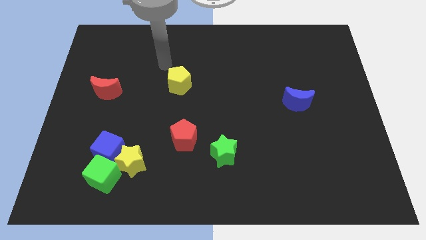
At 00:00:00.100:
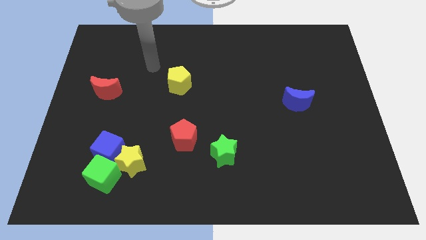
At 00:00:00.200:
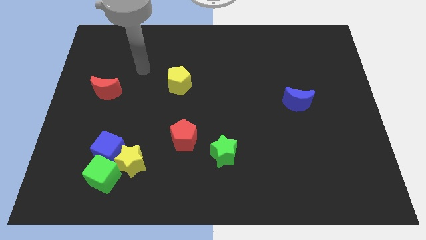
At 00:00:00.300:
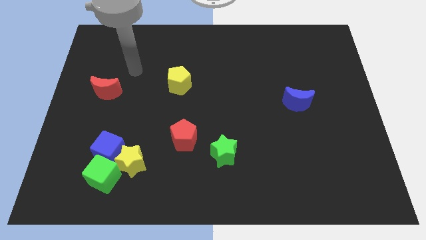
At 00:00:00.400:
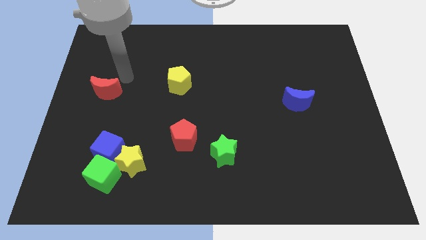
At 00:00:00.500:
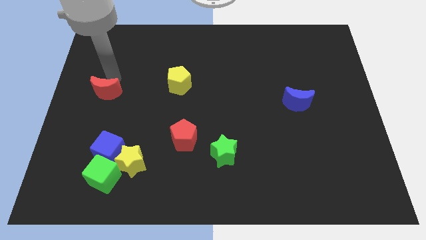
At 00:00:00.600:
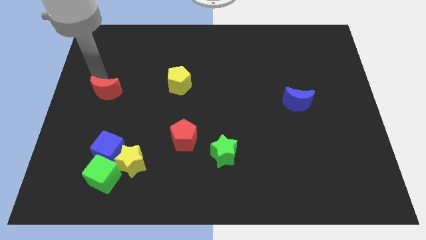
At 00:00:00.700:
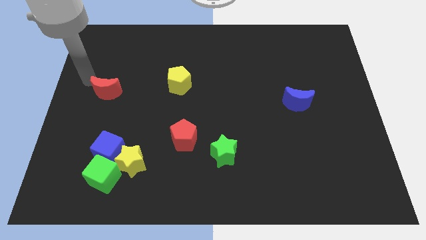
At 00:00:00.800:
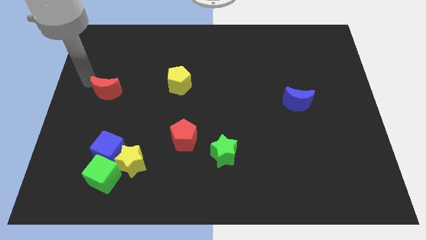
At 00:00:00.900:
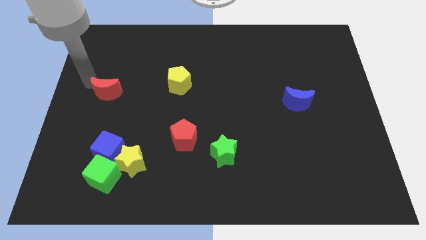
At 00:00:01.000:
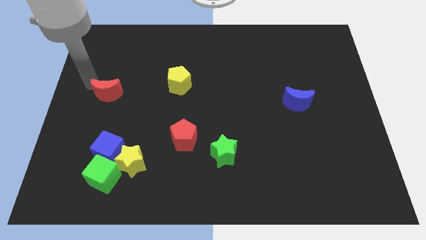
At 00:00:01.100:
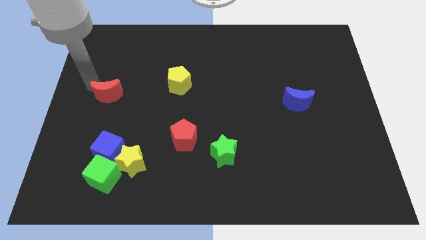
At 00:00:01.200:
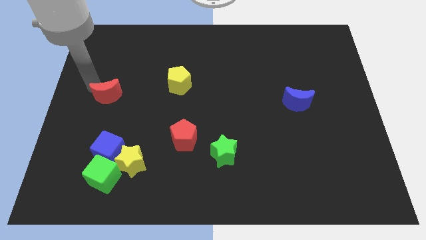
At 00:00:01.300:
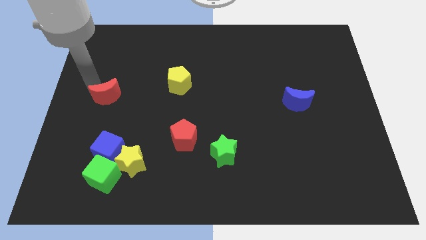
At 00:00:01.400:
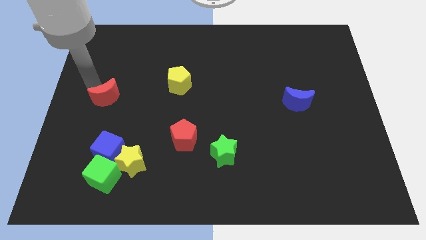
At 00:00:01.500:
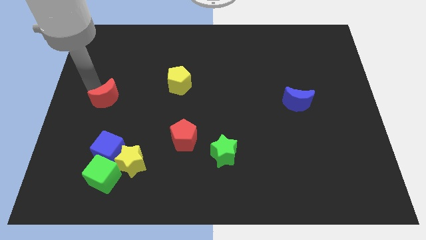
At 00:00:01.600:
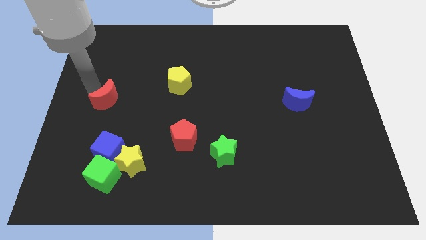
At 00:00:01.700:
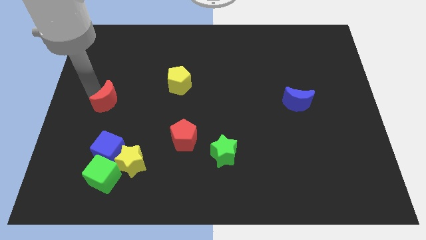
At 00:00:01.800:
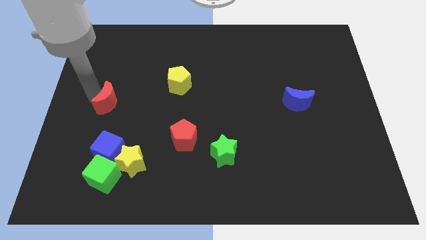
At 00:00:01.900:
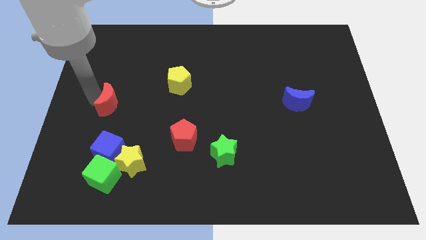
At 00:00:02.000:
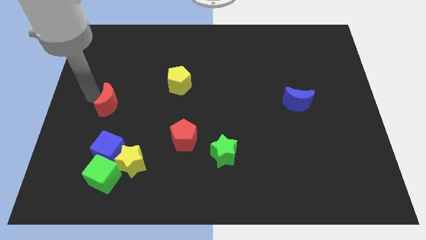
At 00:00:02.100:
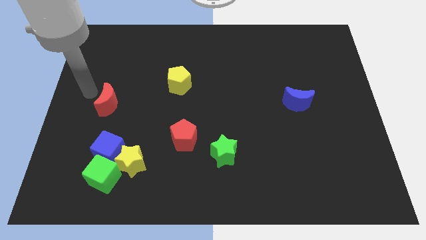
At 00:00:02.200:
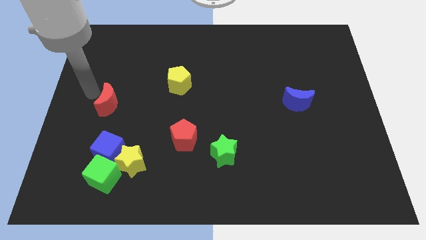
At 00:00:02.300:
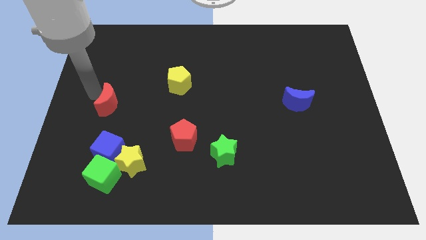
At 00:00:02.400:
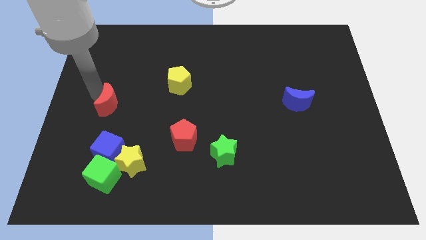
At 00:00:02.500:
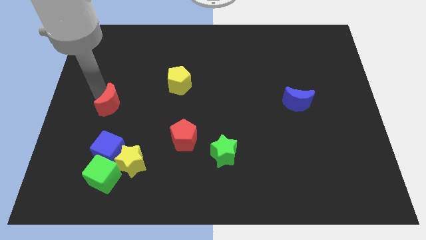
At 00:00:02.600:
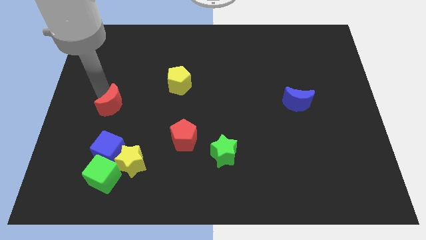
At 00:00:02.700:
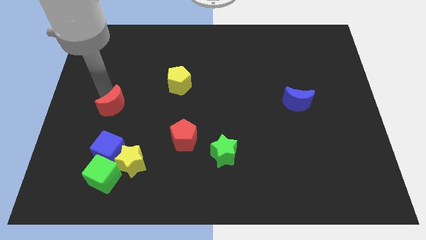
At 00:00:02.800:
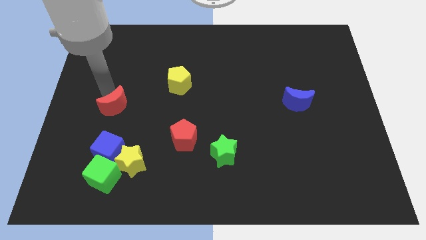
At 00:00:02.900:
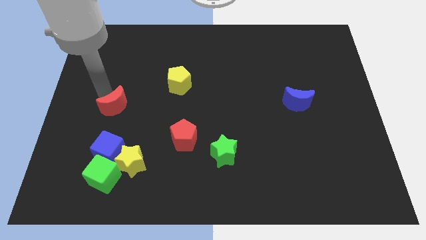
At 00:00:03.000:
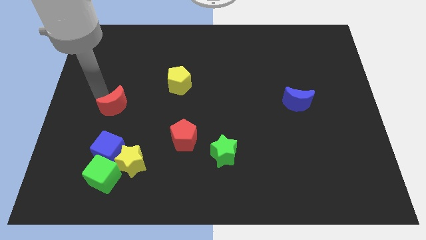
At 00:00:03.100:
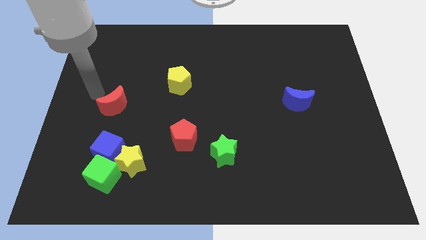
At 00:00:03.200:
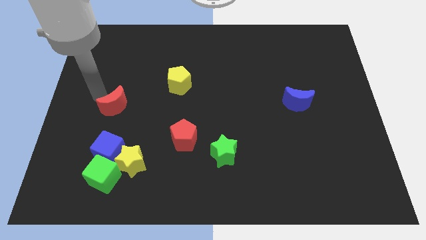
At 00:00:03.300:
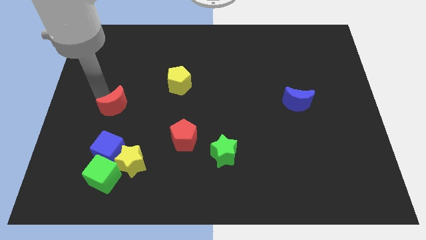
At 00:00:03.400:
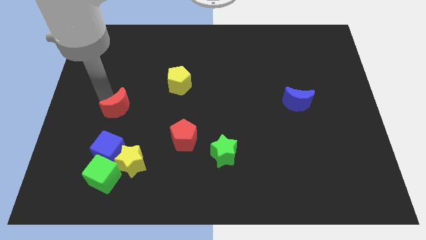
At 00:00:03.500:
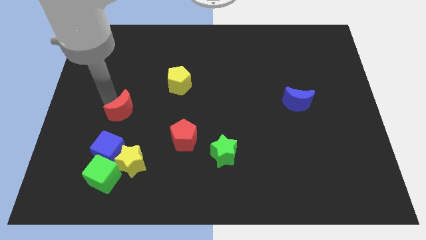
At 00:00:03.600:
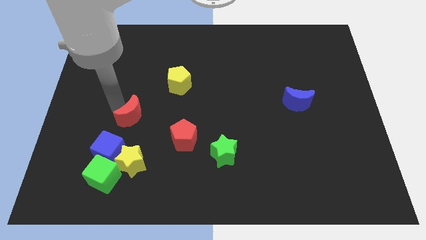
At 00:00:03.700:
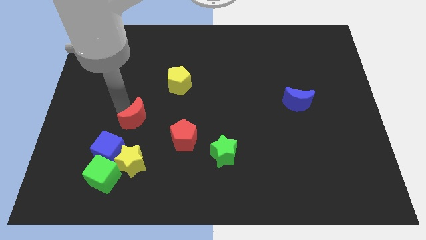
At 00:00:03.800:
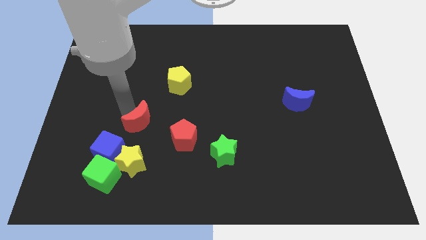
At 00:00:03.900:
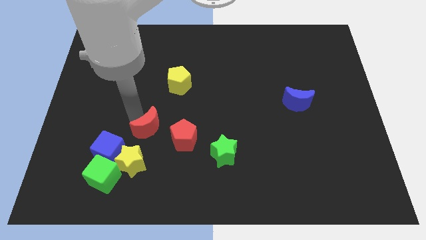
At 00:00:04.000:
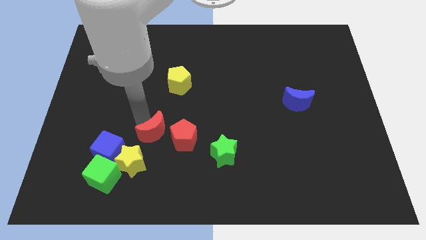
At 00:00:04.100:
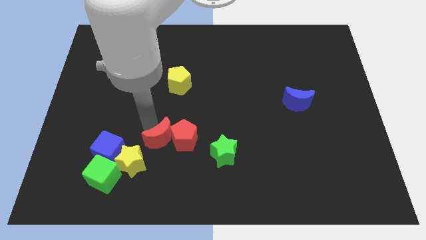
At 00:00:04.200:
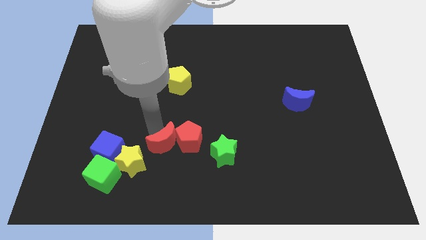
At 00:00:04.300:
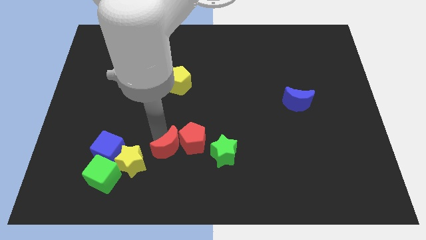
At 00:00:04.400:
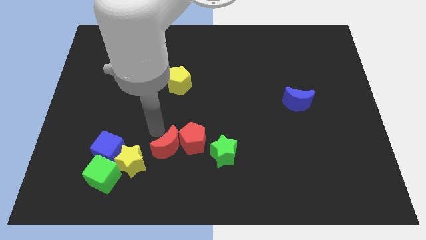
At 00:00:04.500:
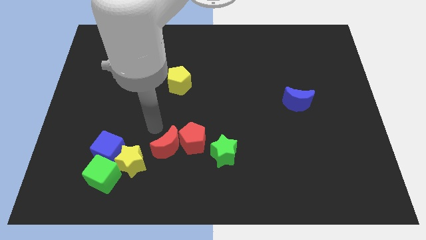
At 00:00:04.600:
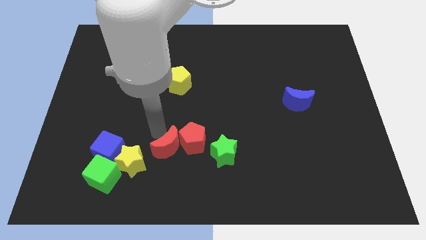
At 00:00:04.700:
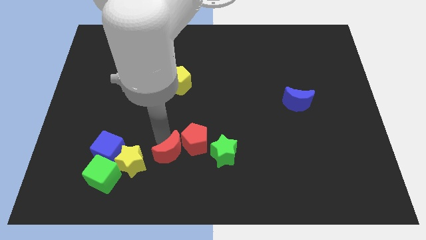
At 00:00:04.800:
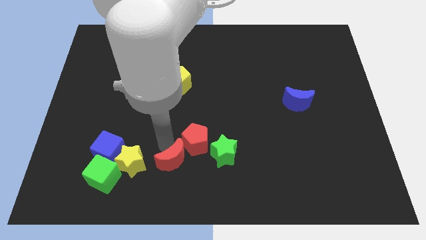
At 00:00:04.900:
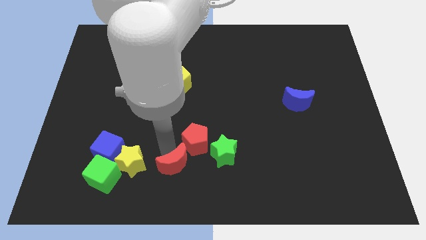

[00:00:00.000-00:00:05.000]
push the red moon to the bottom

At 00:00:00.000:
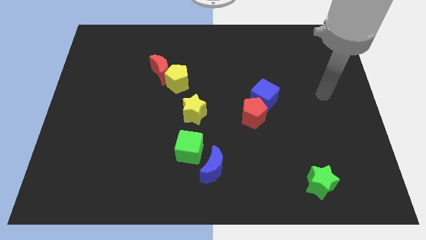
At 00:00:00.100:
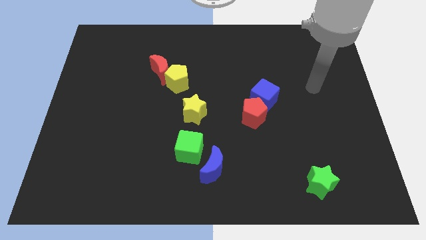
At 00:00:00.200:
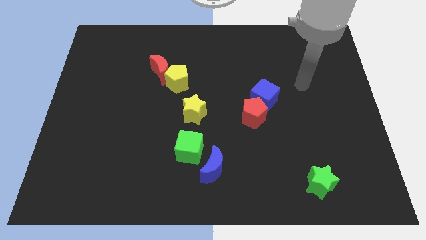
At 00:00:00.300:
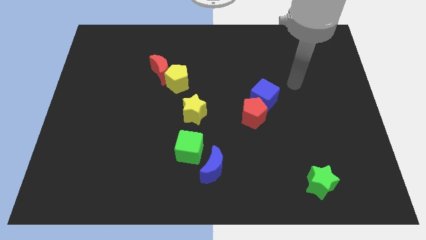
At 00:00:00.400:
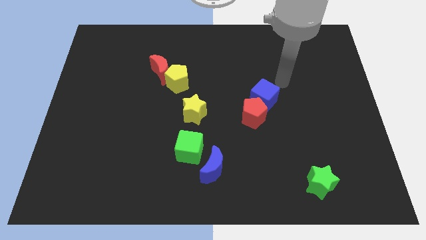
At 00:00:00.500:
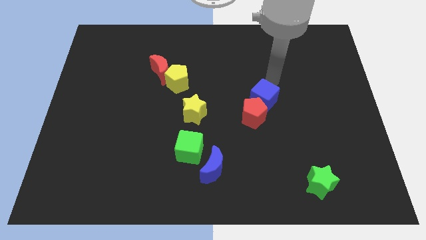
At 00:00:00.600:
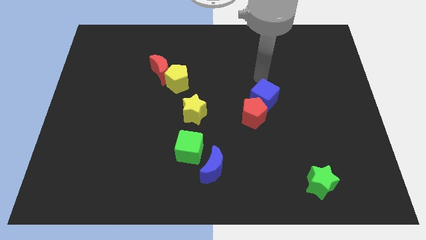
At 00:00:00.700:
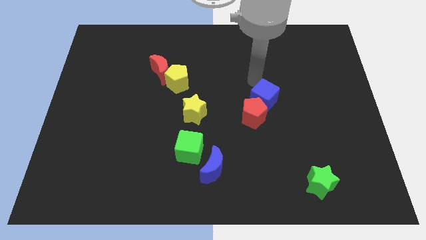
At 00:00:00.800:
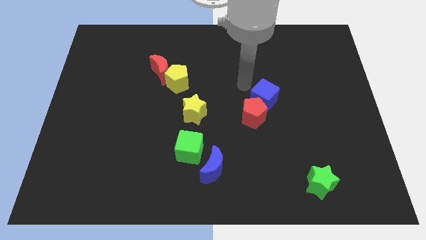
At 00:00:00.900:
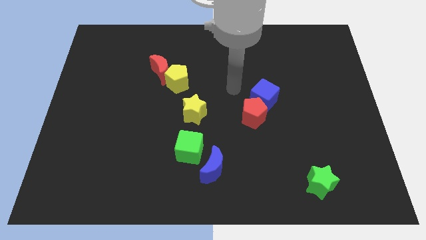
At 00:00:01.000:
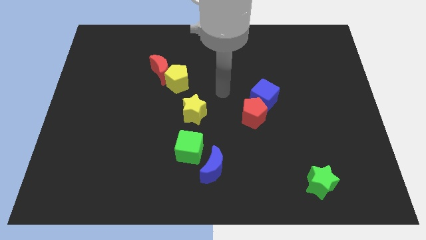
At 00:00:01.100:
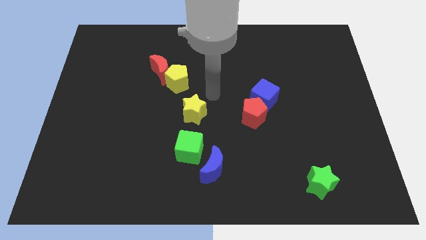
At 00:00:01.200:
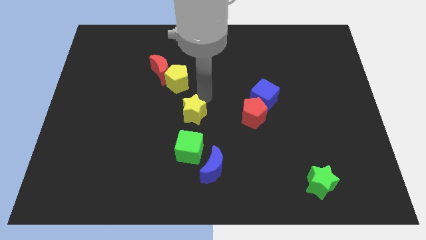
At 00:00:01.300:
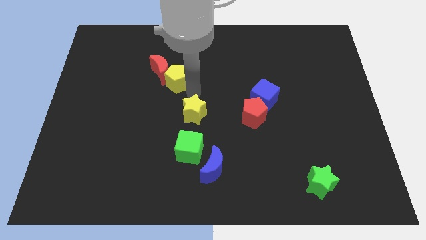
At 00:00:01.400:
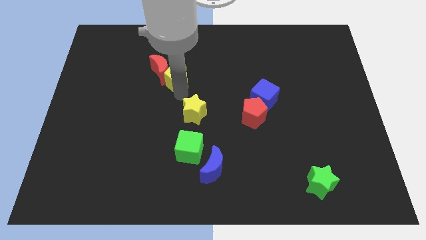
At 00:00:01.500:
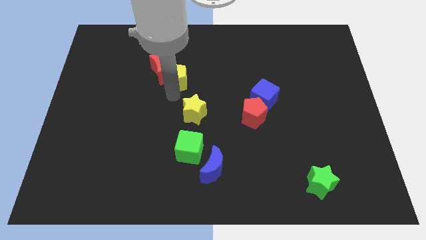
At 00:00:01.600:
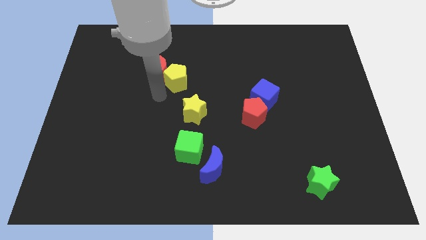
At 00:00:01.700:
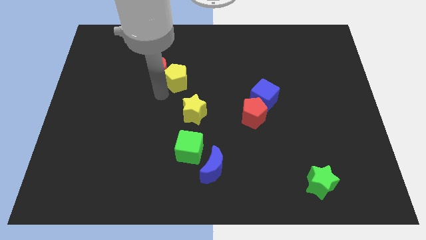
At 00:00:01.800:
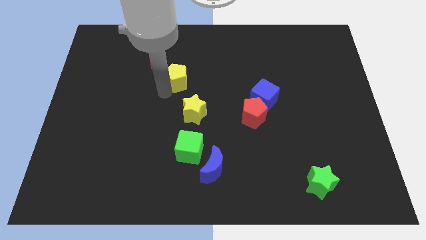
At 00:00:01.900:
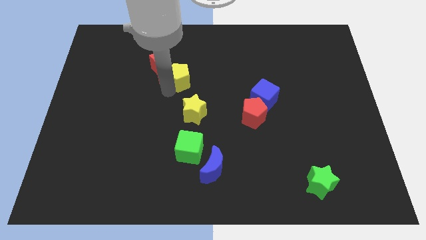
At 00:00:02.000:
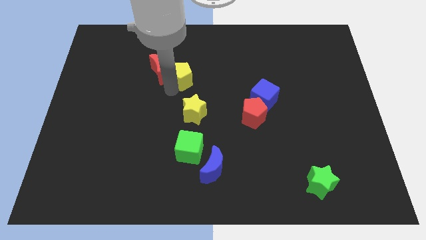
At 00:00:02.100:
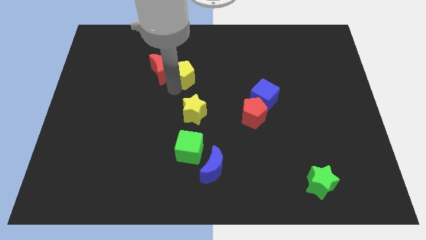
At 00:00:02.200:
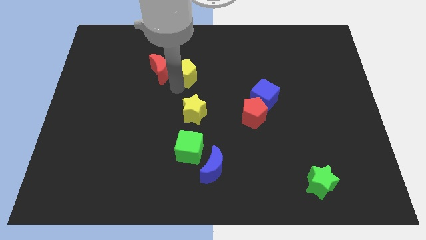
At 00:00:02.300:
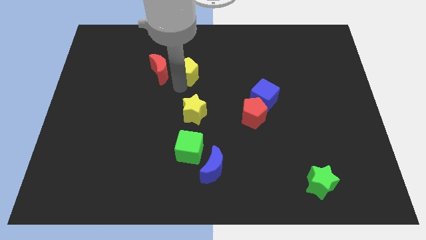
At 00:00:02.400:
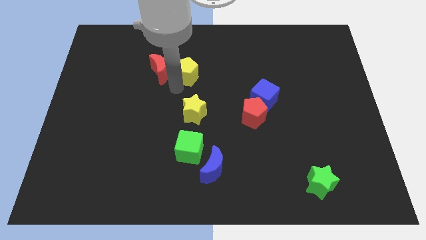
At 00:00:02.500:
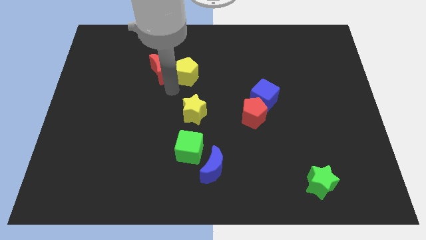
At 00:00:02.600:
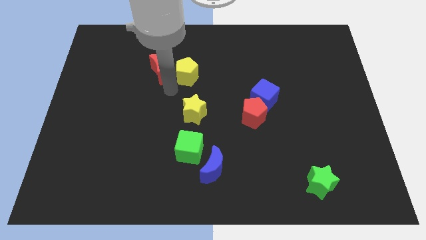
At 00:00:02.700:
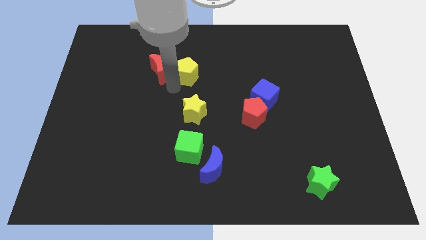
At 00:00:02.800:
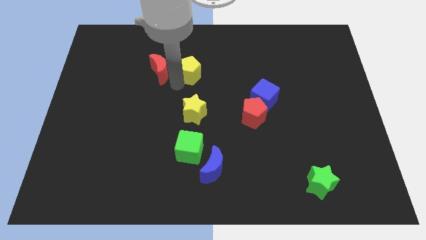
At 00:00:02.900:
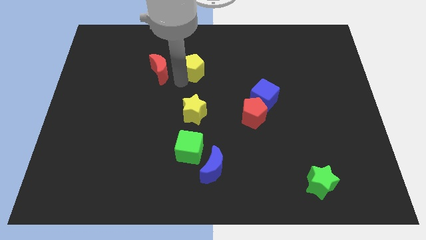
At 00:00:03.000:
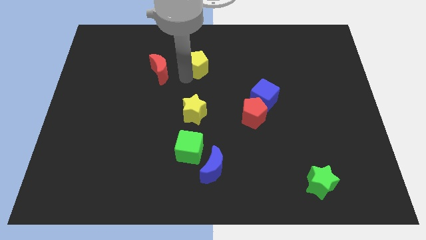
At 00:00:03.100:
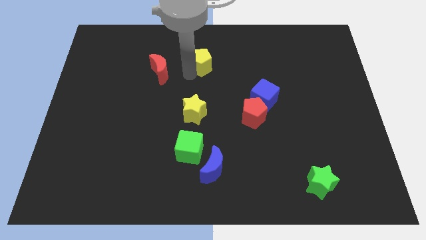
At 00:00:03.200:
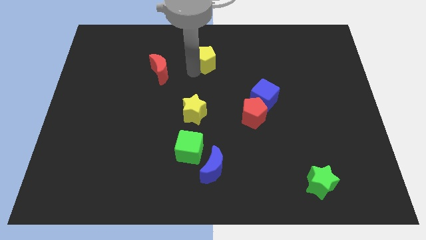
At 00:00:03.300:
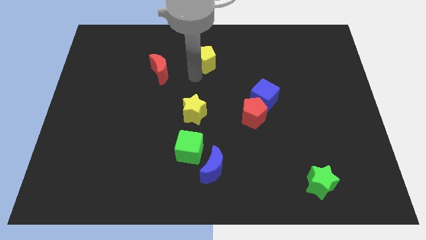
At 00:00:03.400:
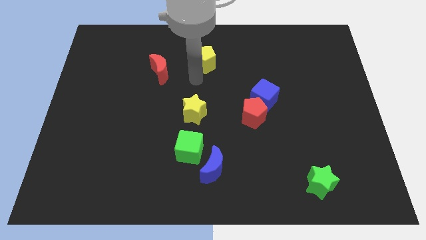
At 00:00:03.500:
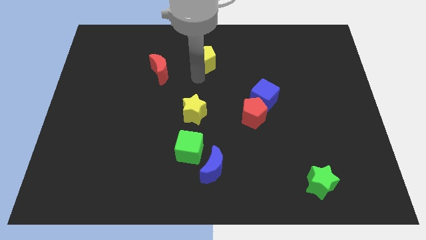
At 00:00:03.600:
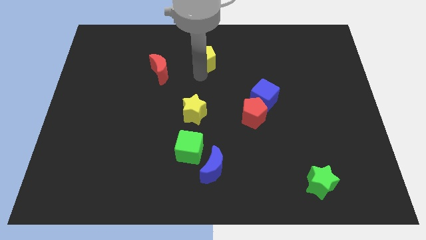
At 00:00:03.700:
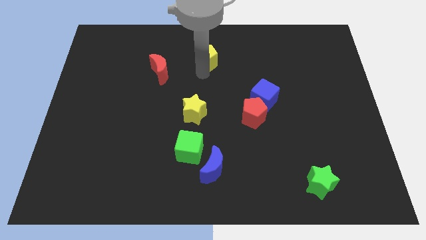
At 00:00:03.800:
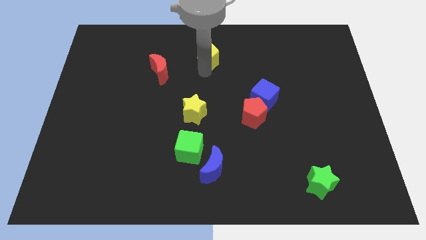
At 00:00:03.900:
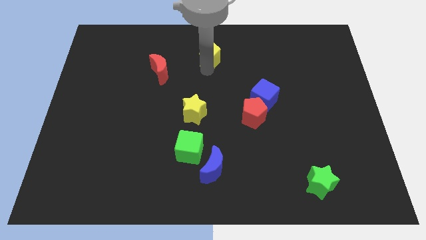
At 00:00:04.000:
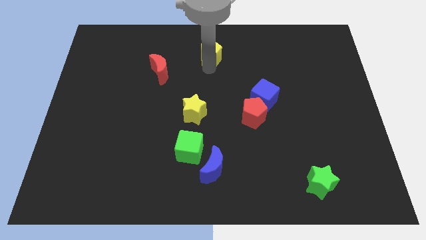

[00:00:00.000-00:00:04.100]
push the yellow pentagon to the towards your base
